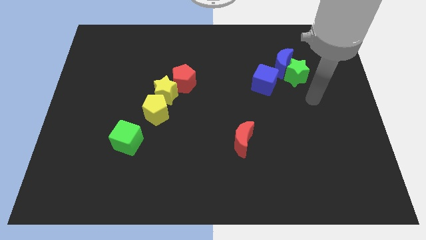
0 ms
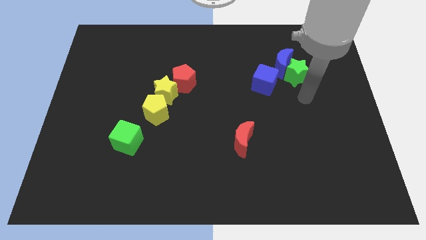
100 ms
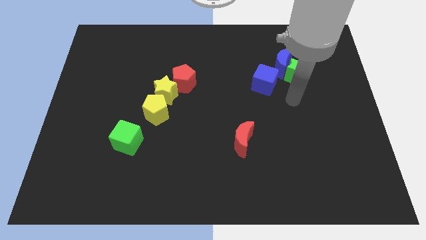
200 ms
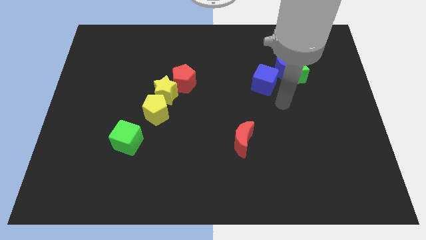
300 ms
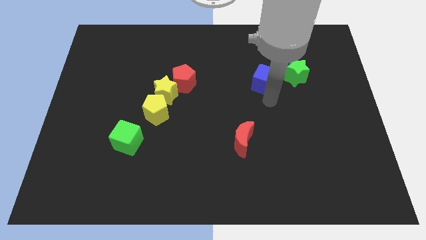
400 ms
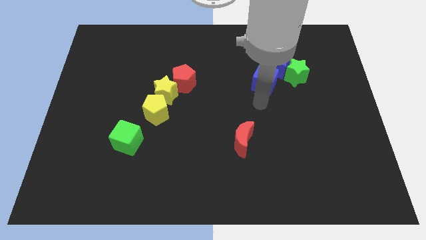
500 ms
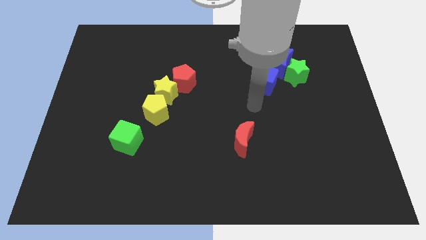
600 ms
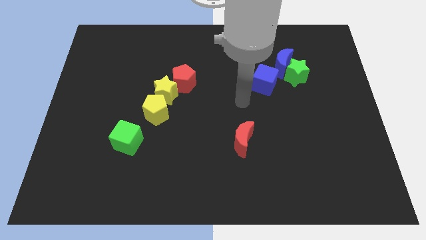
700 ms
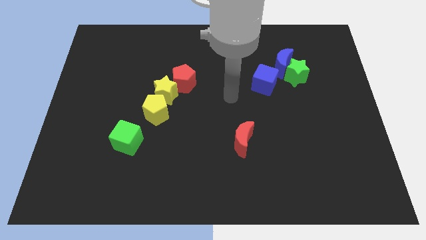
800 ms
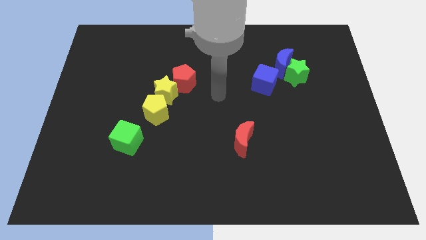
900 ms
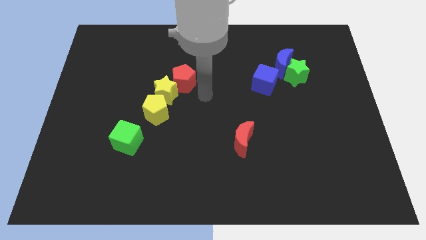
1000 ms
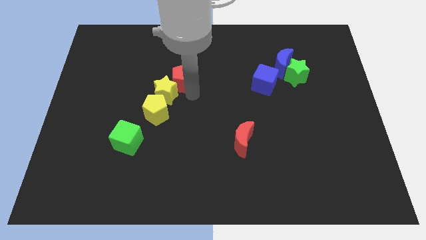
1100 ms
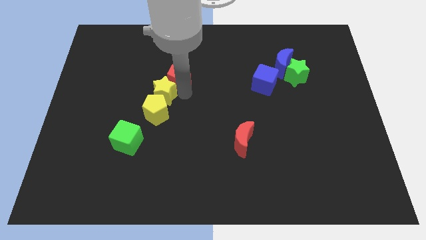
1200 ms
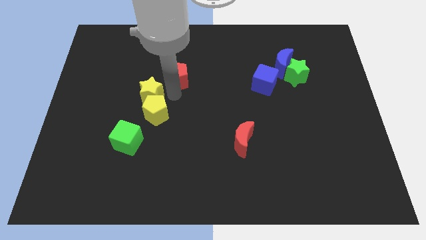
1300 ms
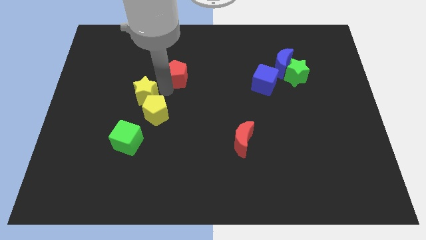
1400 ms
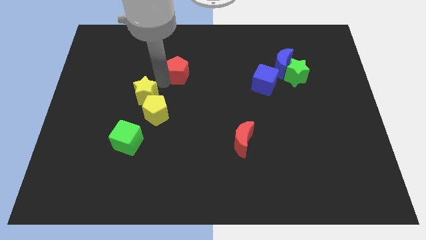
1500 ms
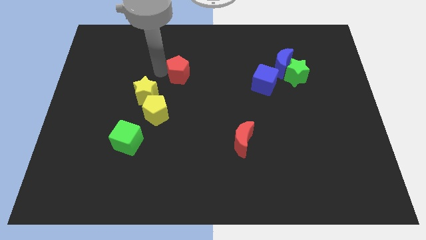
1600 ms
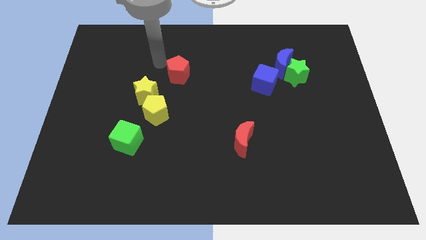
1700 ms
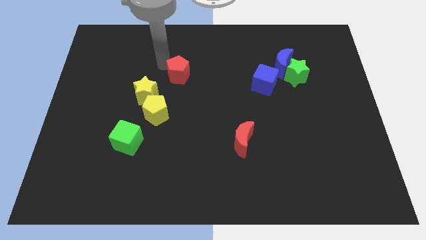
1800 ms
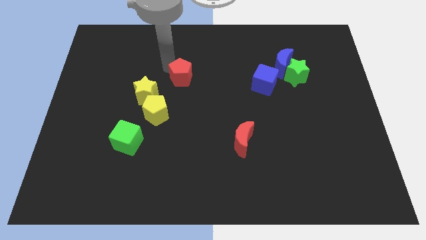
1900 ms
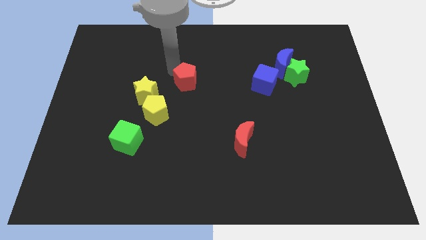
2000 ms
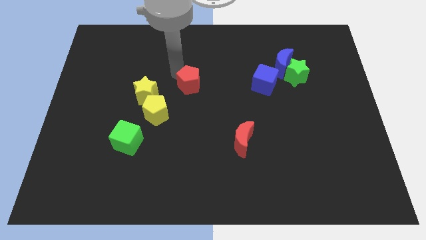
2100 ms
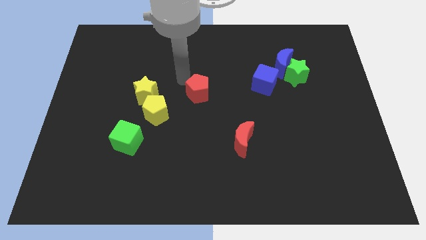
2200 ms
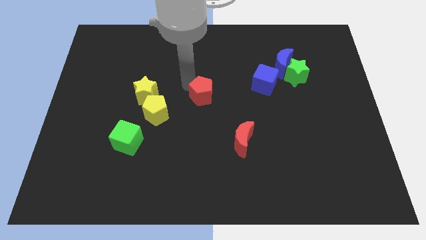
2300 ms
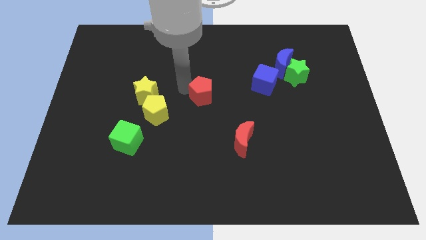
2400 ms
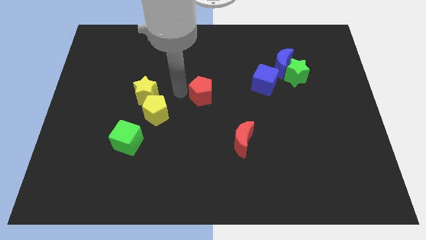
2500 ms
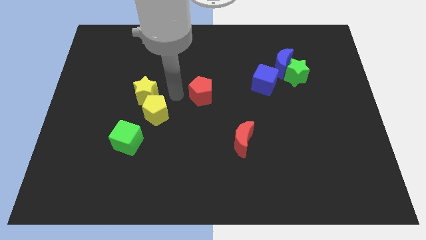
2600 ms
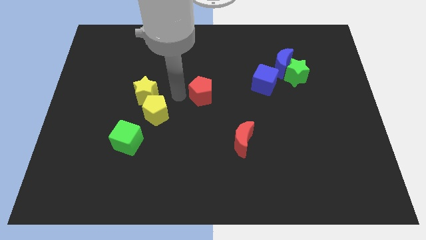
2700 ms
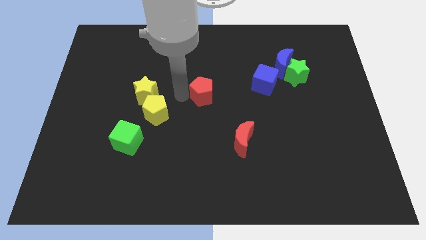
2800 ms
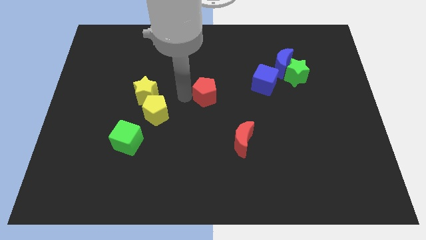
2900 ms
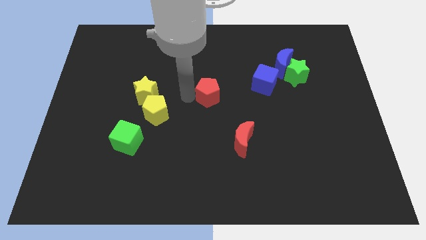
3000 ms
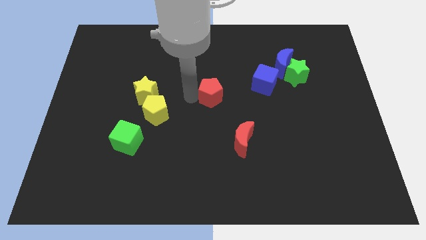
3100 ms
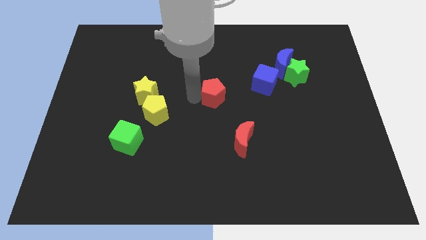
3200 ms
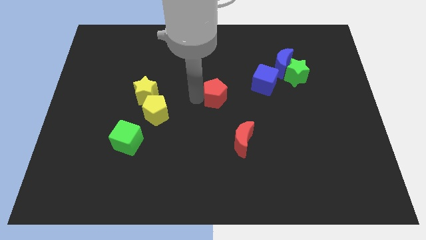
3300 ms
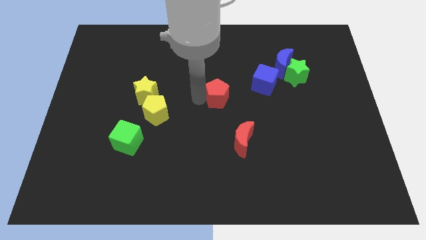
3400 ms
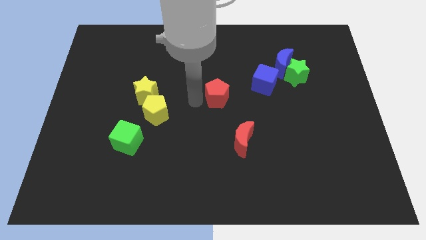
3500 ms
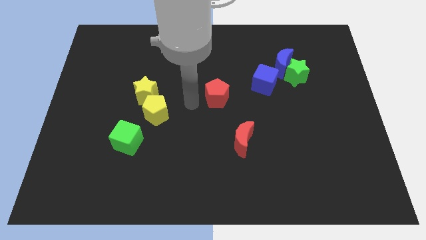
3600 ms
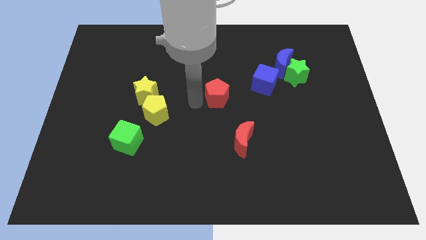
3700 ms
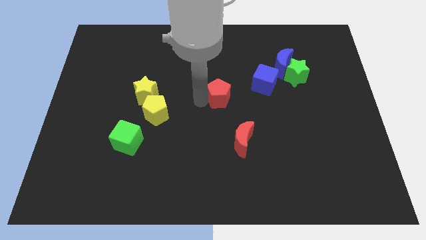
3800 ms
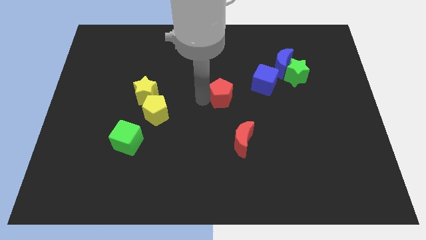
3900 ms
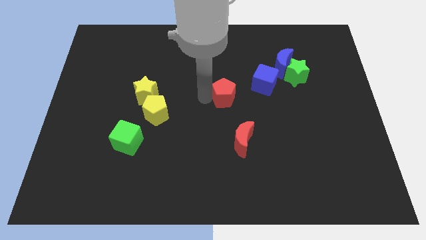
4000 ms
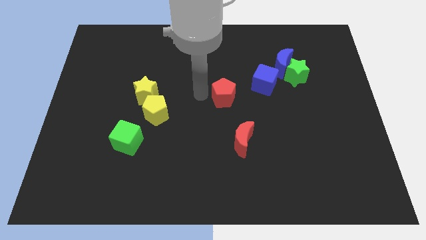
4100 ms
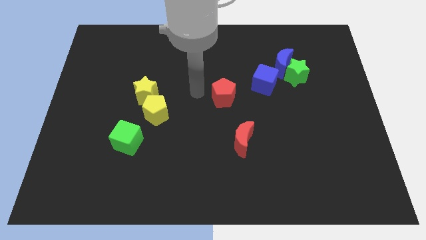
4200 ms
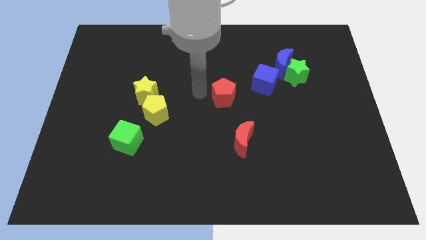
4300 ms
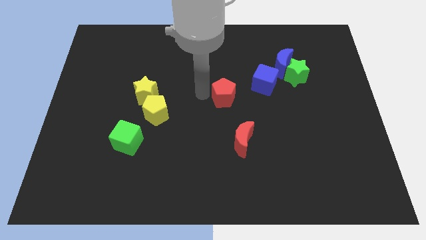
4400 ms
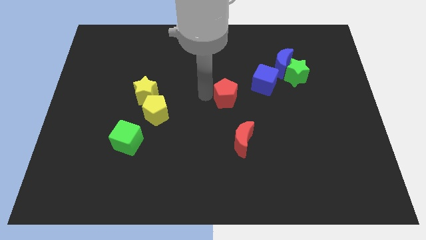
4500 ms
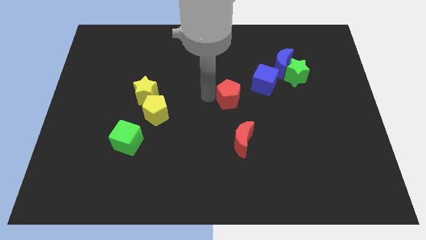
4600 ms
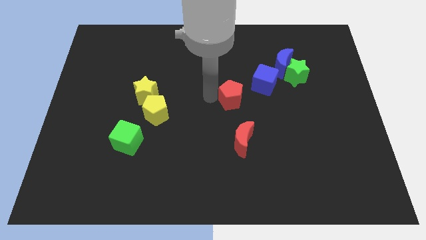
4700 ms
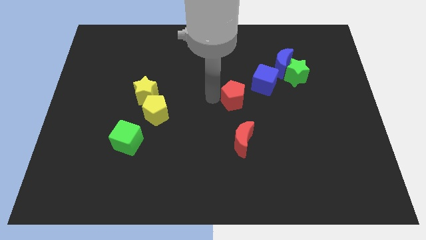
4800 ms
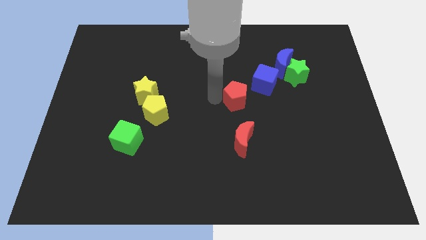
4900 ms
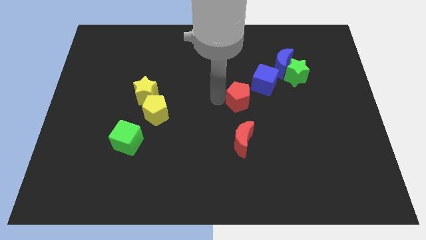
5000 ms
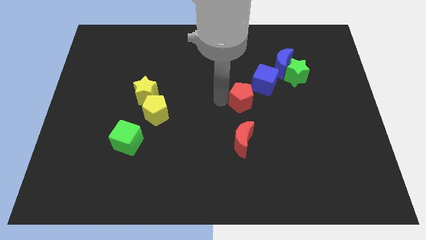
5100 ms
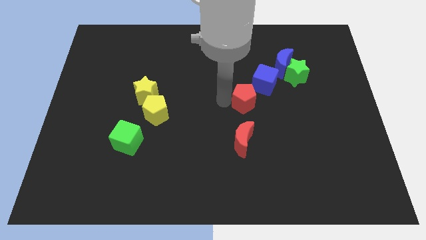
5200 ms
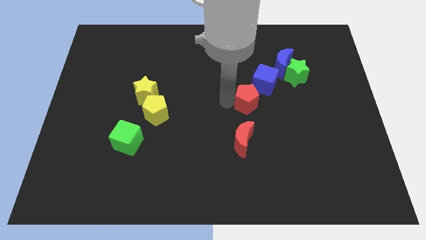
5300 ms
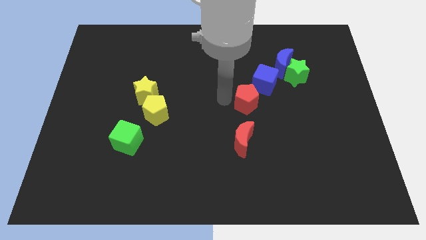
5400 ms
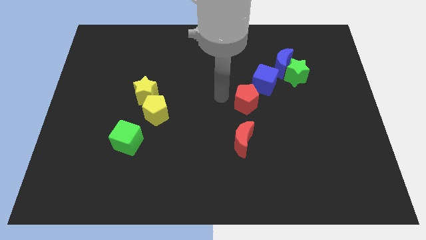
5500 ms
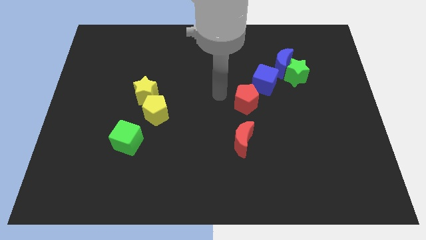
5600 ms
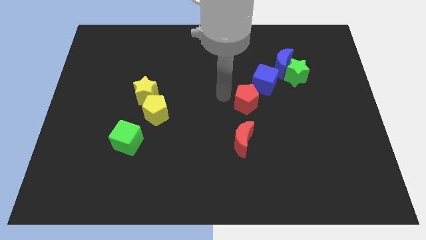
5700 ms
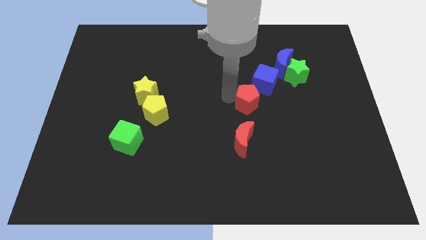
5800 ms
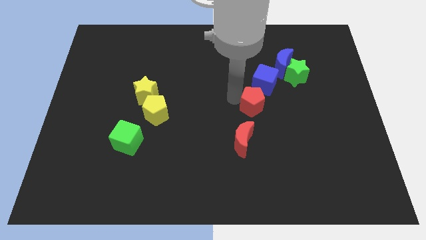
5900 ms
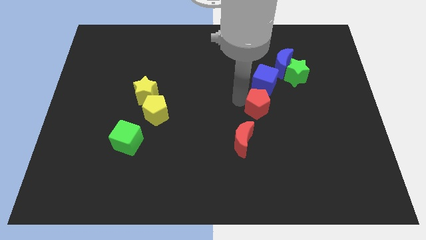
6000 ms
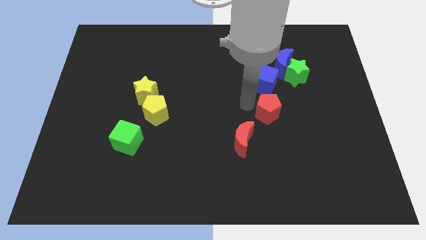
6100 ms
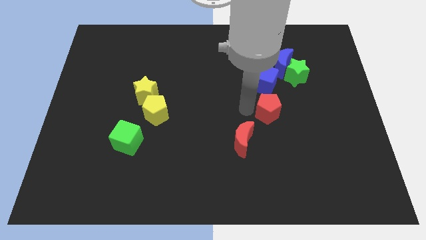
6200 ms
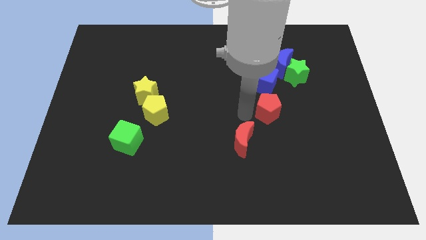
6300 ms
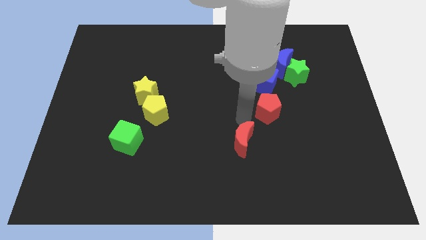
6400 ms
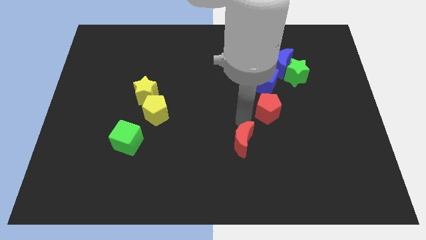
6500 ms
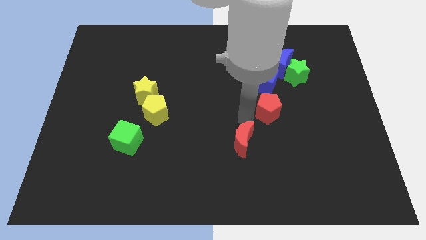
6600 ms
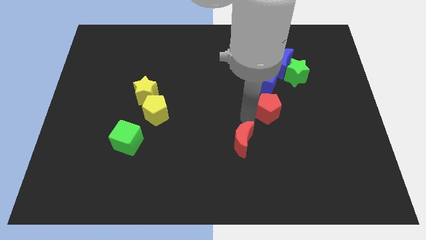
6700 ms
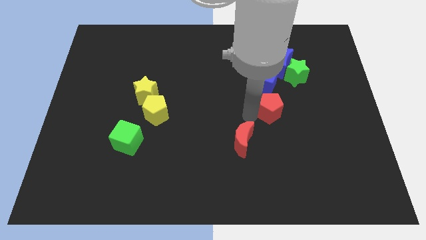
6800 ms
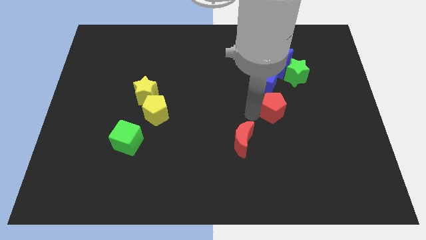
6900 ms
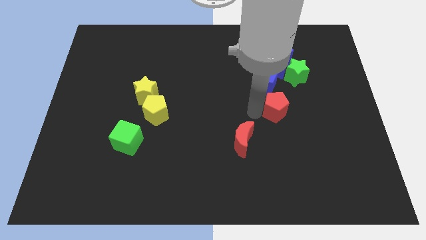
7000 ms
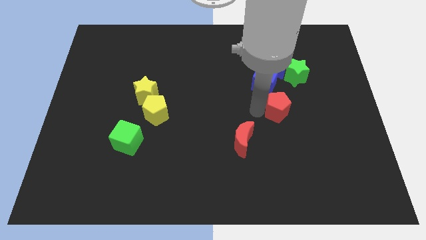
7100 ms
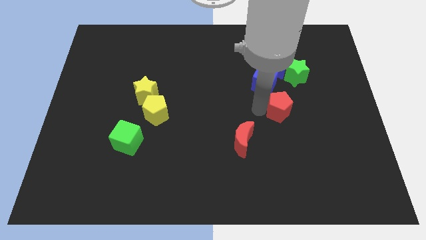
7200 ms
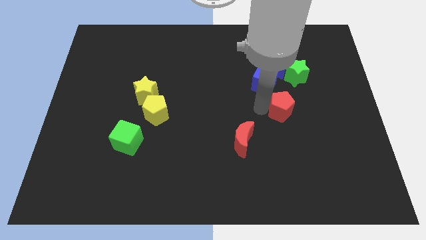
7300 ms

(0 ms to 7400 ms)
slide the red pentagon right

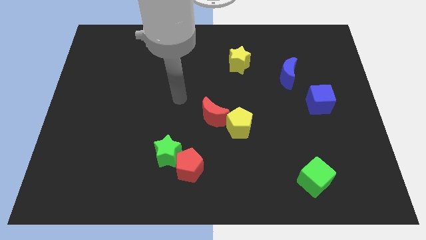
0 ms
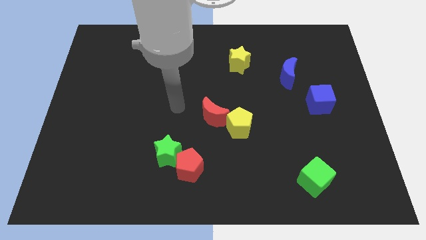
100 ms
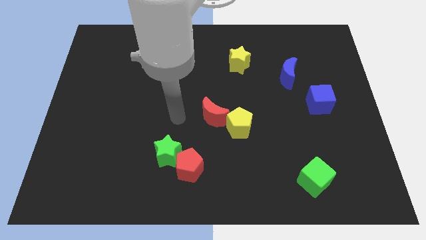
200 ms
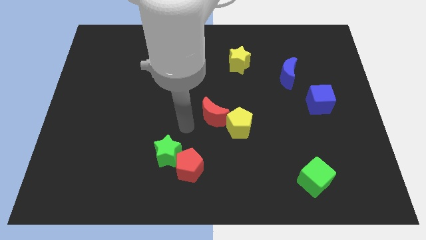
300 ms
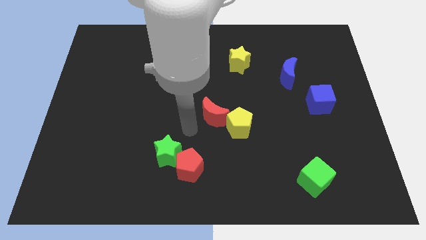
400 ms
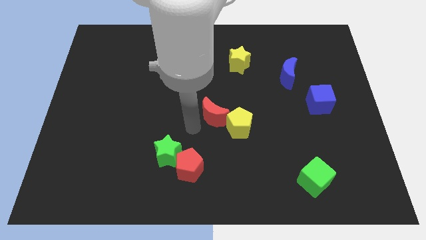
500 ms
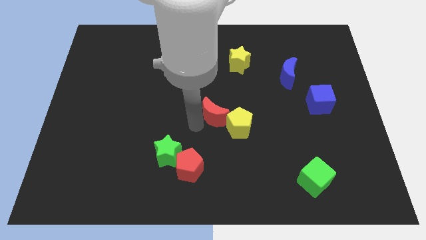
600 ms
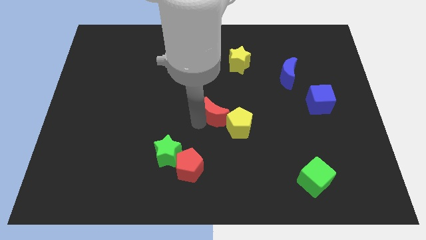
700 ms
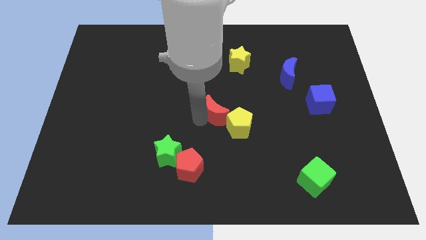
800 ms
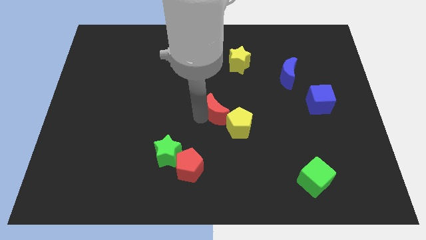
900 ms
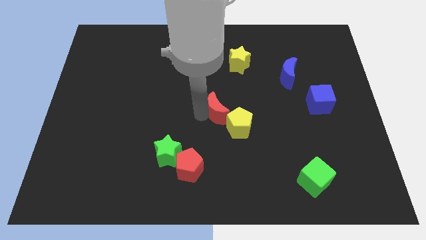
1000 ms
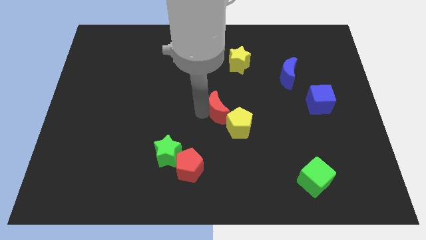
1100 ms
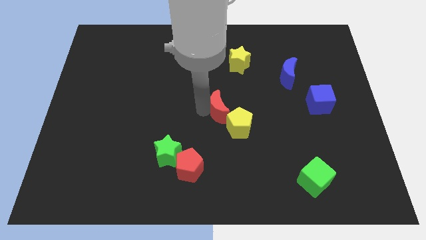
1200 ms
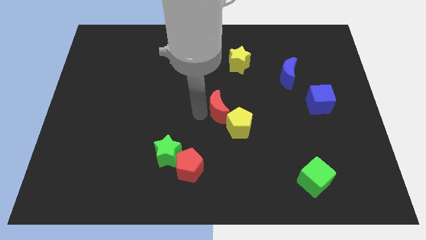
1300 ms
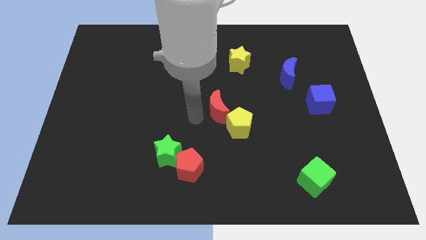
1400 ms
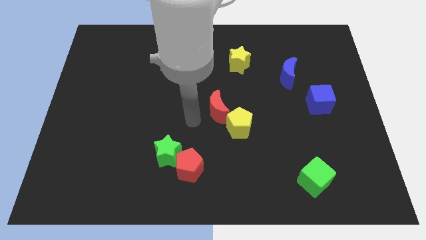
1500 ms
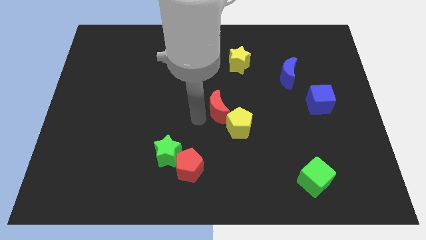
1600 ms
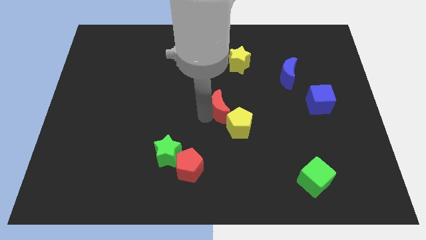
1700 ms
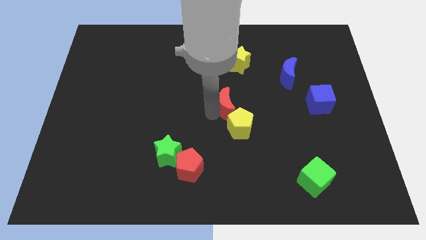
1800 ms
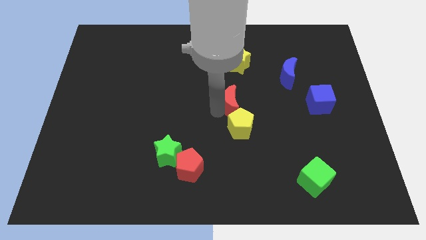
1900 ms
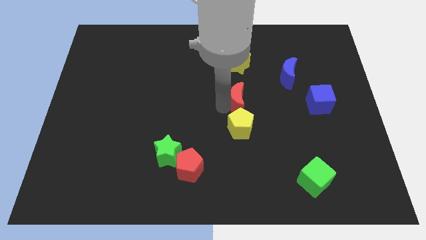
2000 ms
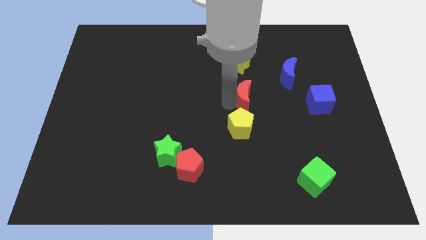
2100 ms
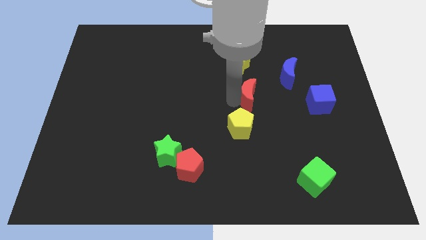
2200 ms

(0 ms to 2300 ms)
slightly push the red moon right
